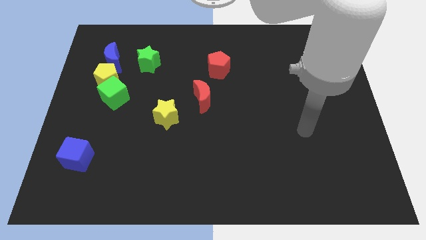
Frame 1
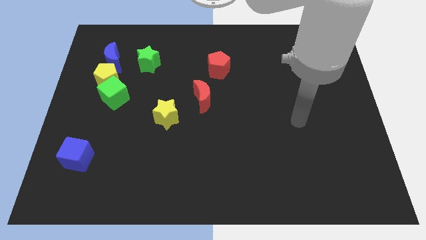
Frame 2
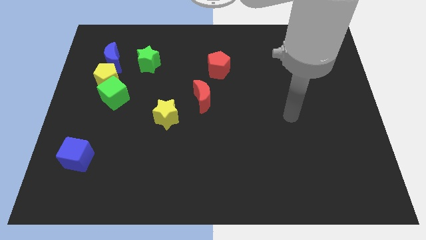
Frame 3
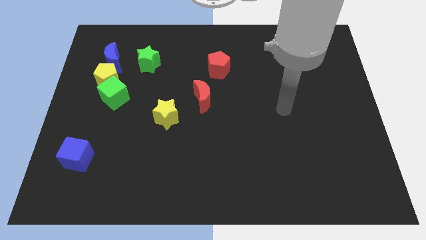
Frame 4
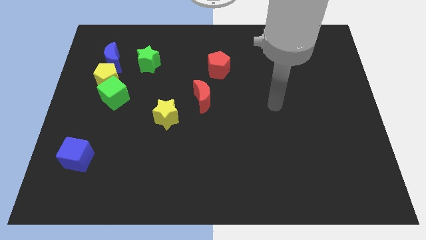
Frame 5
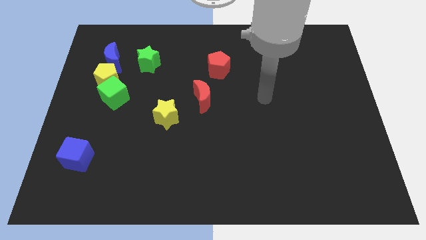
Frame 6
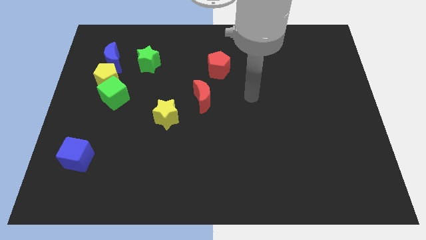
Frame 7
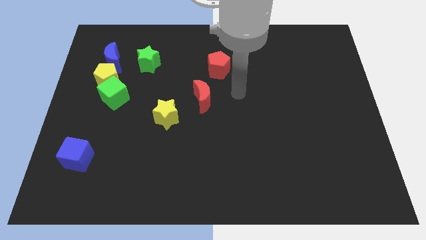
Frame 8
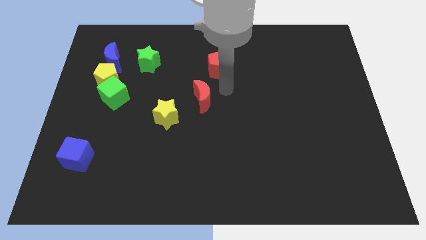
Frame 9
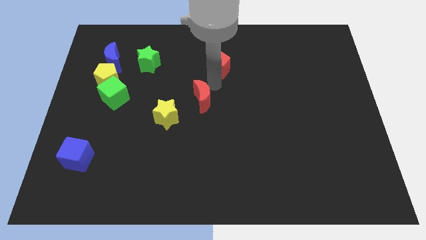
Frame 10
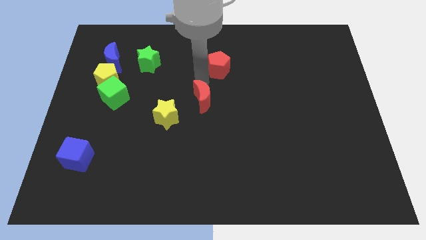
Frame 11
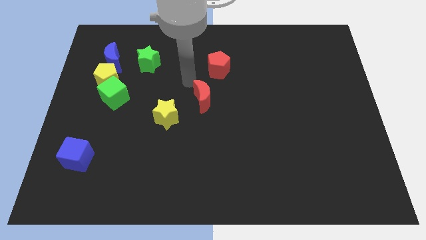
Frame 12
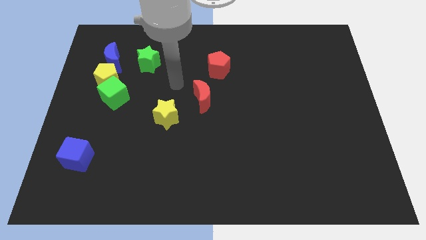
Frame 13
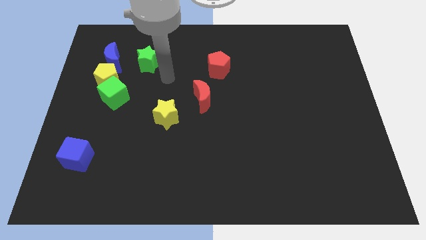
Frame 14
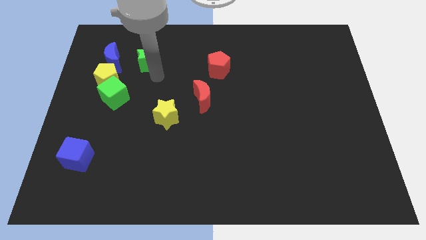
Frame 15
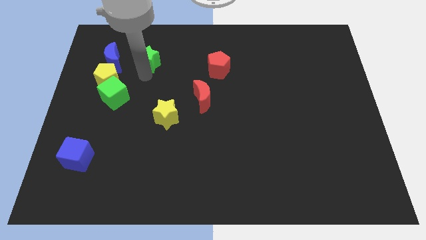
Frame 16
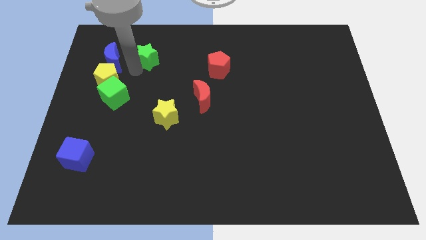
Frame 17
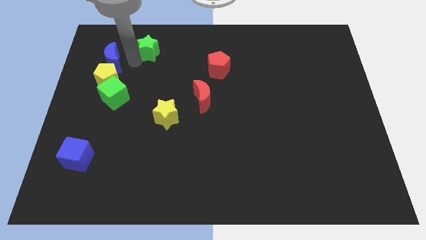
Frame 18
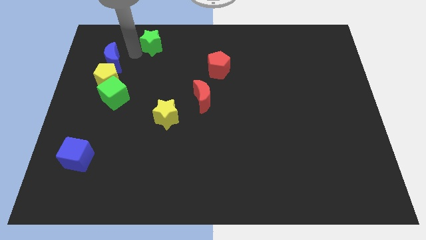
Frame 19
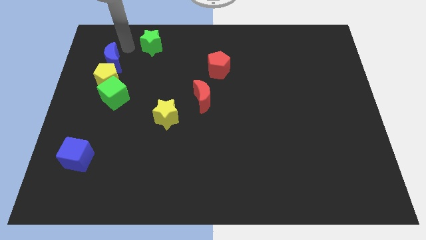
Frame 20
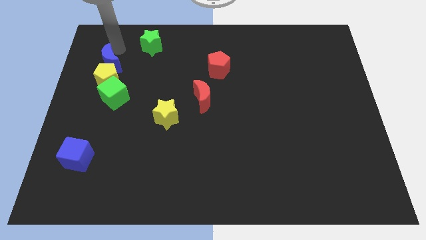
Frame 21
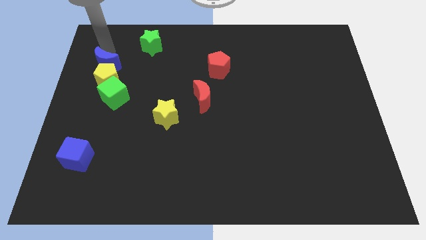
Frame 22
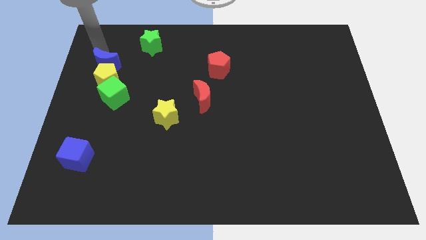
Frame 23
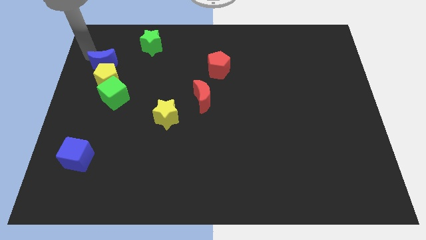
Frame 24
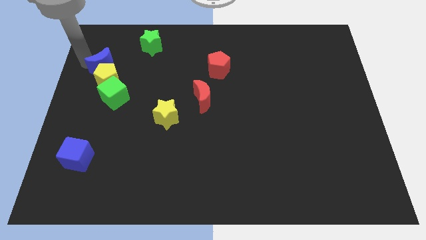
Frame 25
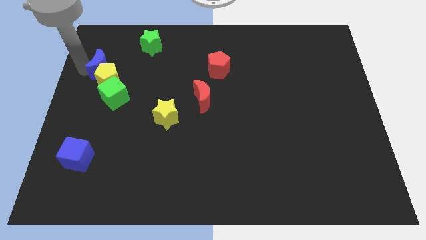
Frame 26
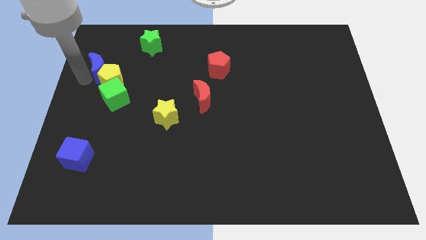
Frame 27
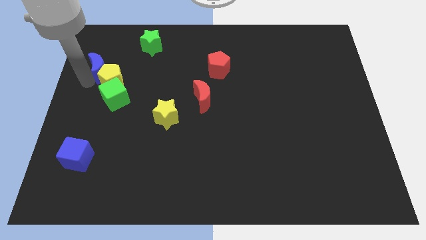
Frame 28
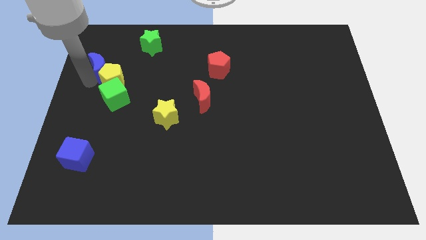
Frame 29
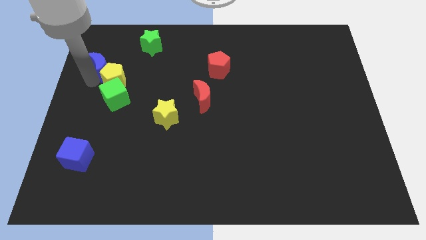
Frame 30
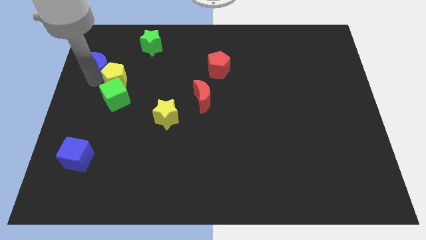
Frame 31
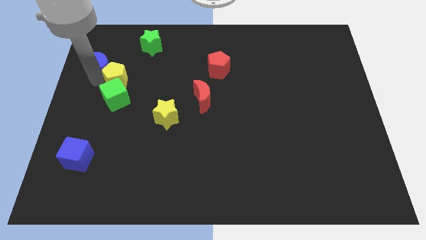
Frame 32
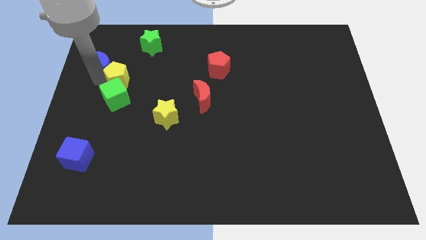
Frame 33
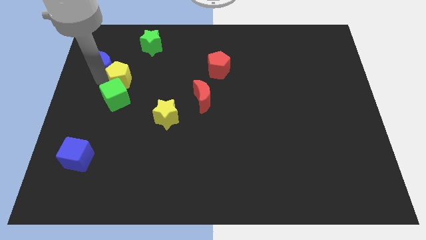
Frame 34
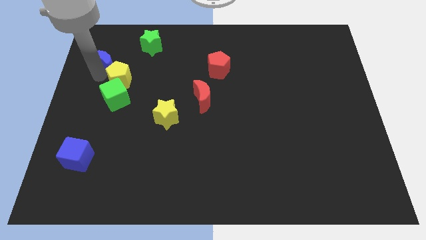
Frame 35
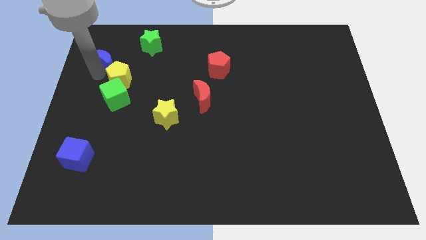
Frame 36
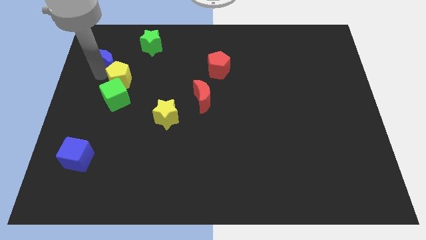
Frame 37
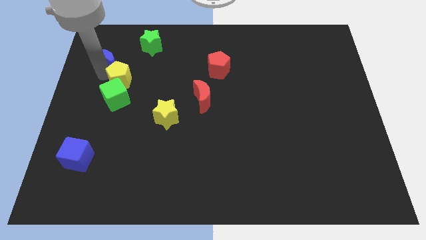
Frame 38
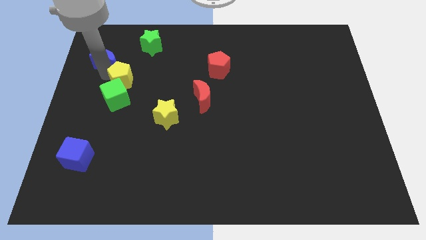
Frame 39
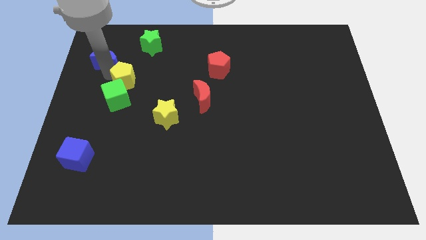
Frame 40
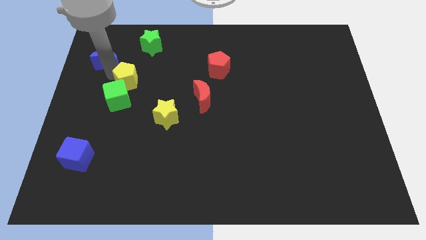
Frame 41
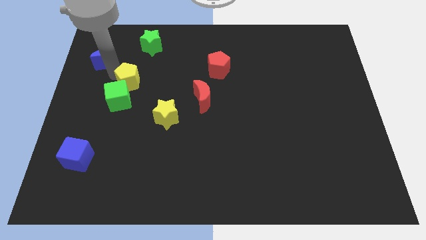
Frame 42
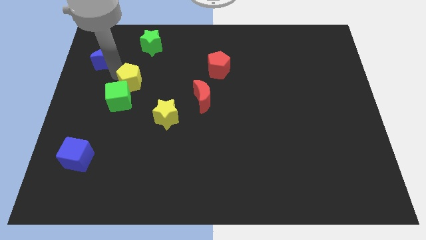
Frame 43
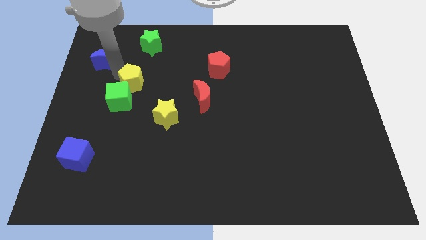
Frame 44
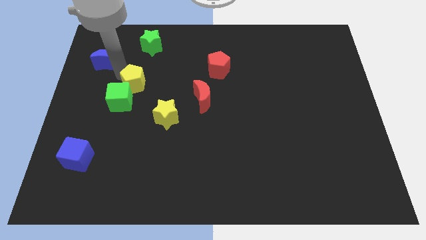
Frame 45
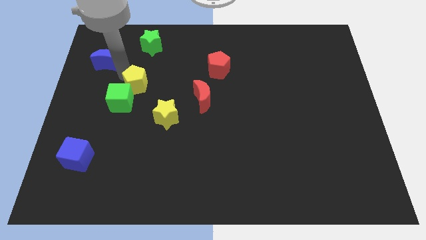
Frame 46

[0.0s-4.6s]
move the yellow pentagon to the right a little bit

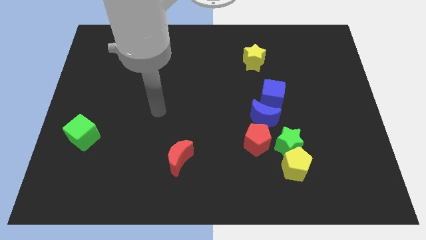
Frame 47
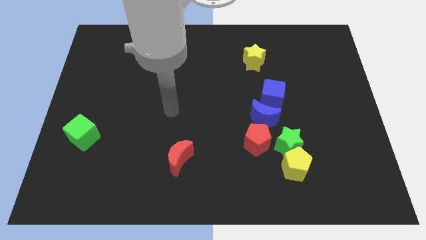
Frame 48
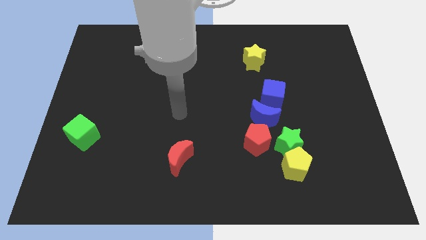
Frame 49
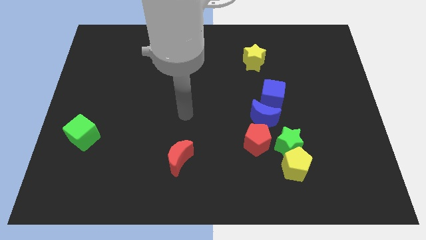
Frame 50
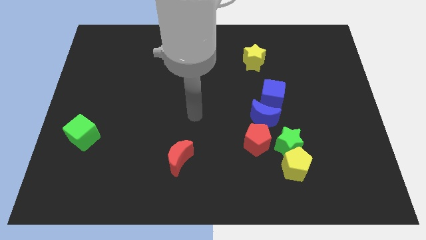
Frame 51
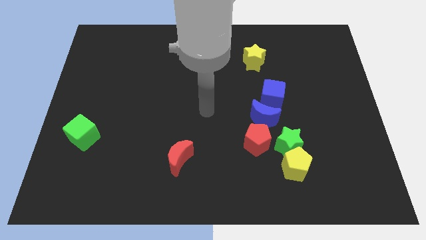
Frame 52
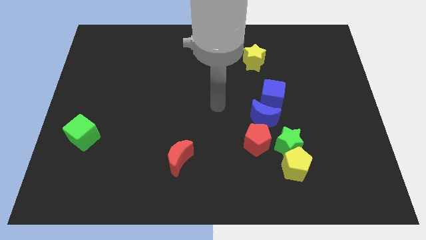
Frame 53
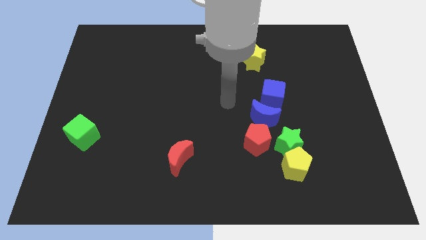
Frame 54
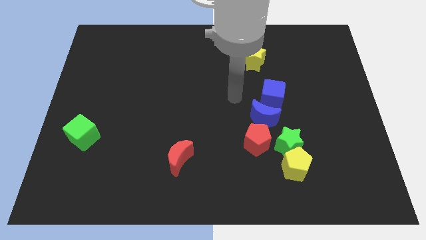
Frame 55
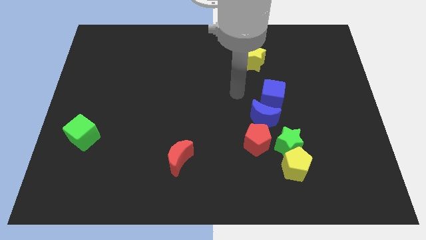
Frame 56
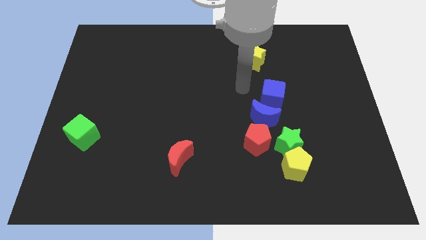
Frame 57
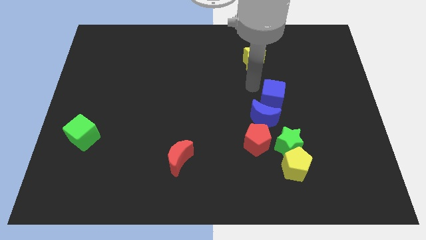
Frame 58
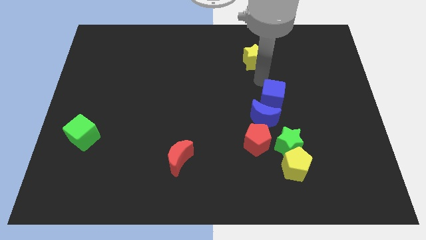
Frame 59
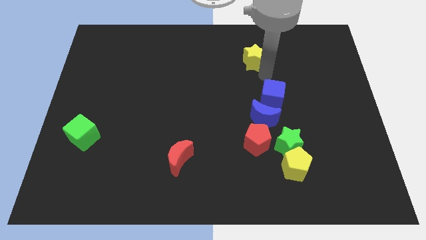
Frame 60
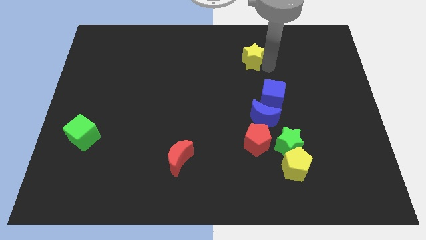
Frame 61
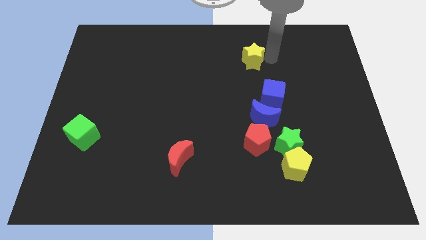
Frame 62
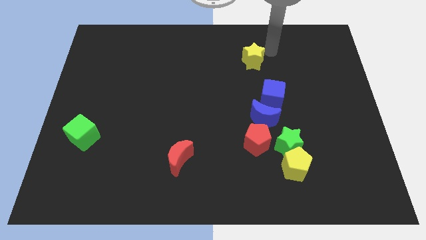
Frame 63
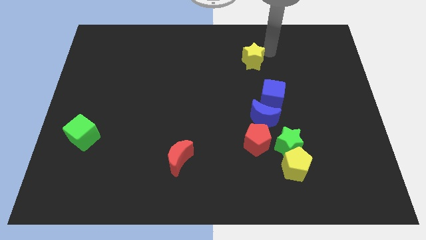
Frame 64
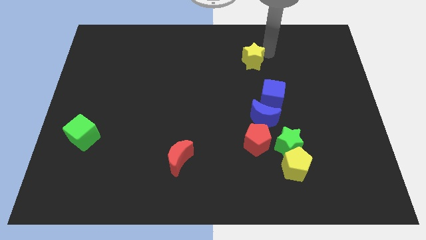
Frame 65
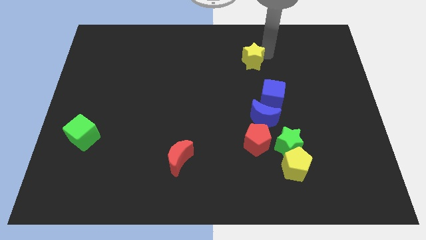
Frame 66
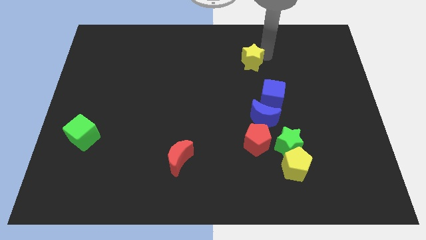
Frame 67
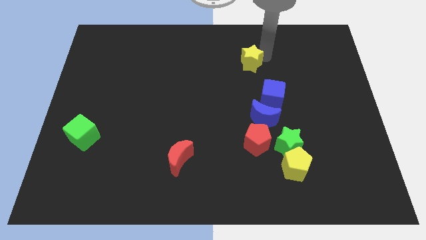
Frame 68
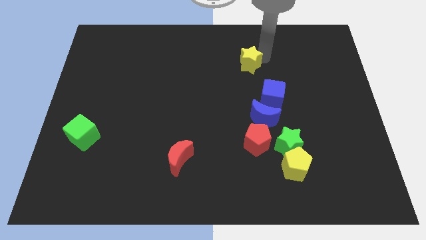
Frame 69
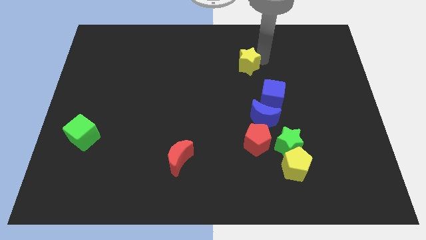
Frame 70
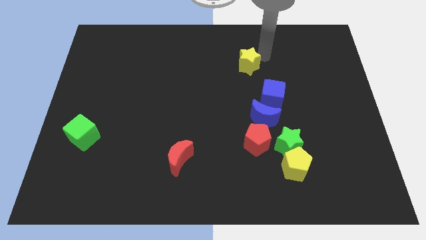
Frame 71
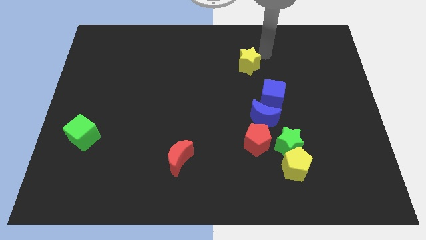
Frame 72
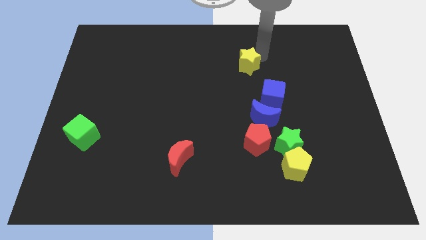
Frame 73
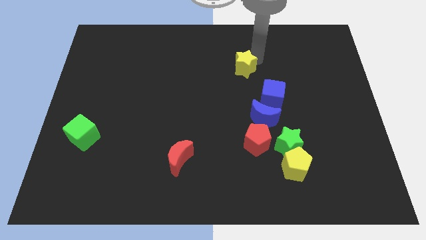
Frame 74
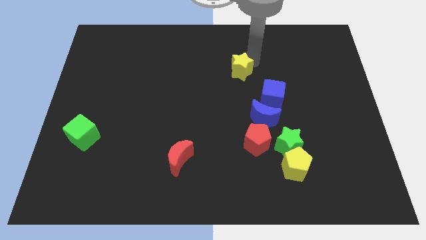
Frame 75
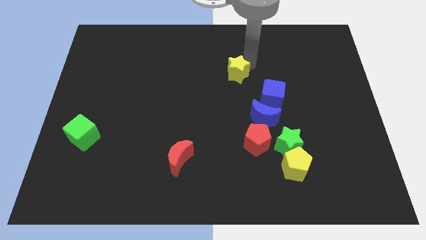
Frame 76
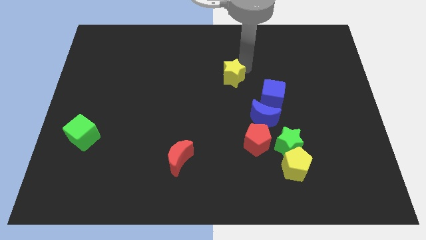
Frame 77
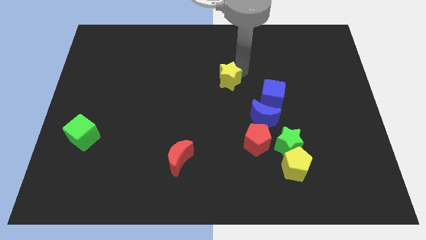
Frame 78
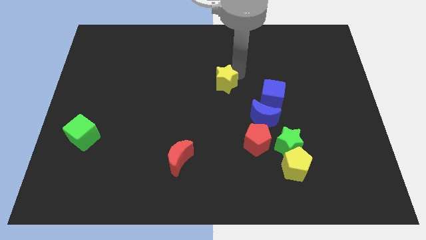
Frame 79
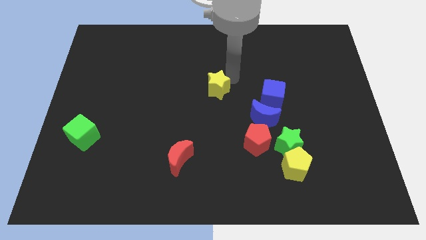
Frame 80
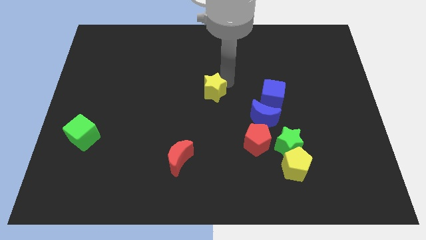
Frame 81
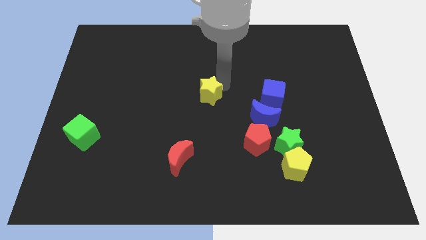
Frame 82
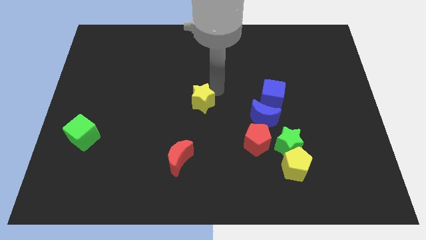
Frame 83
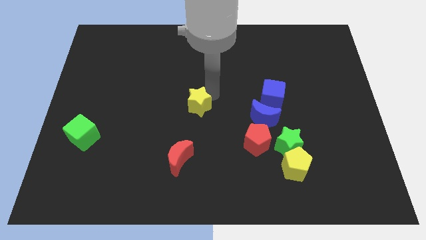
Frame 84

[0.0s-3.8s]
push the yellow star down and then left
